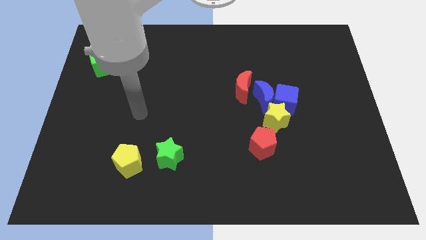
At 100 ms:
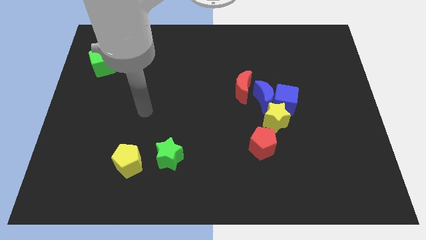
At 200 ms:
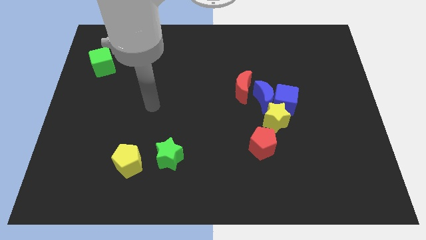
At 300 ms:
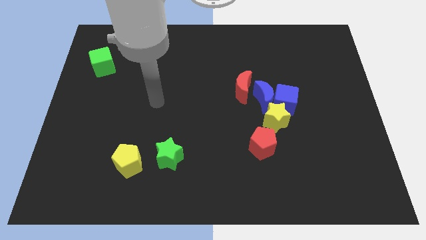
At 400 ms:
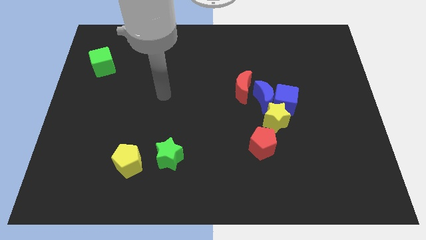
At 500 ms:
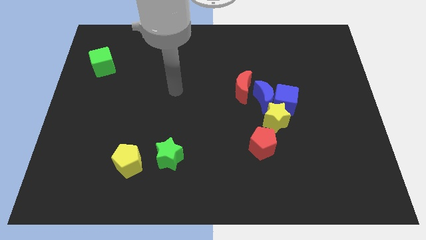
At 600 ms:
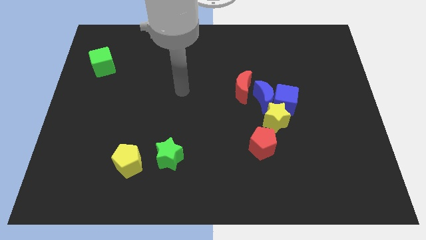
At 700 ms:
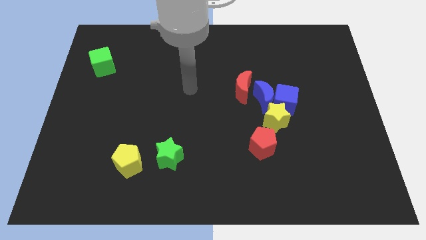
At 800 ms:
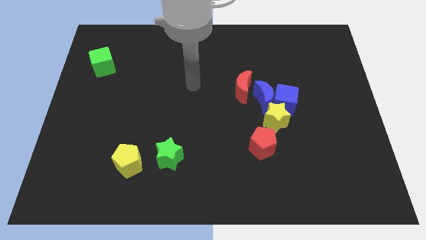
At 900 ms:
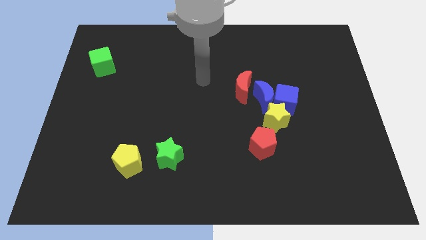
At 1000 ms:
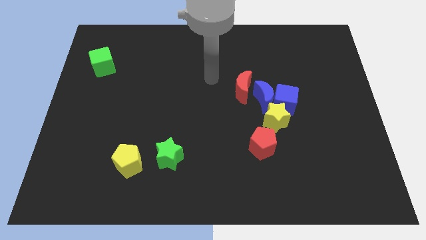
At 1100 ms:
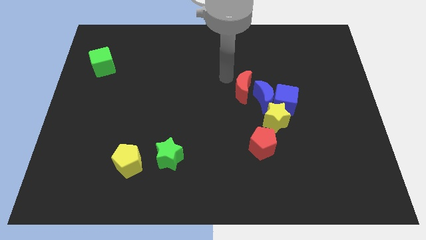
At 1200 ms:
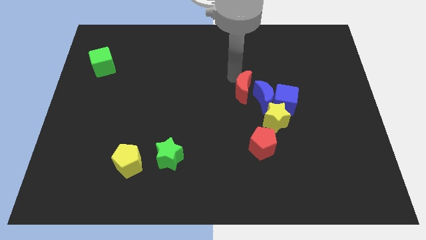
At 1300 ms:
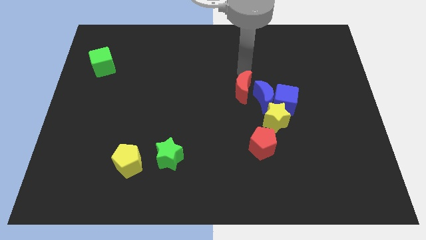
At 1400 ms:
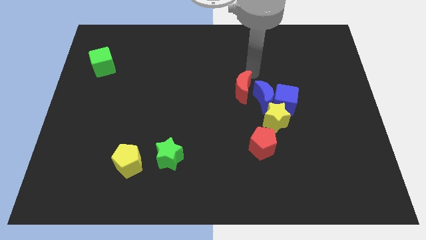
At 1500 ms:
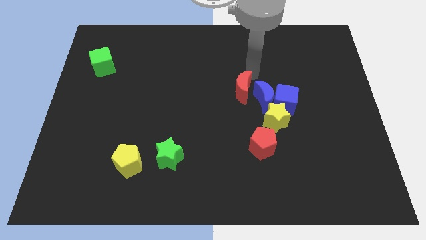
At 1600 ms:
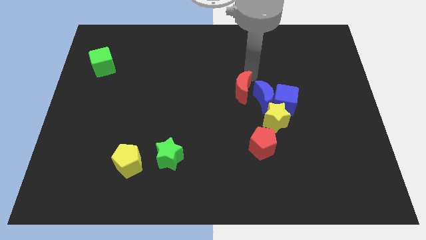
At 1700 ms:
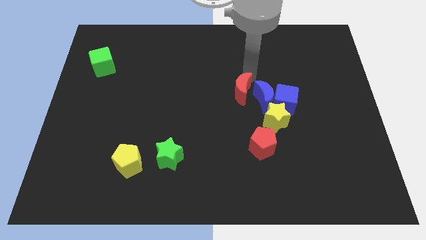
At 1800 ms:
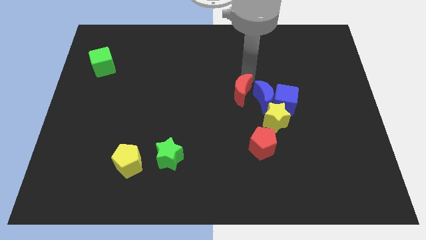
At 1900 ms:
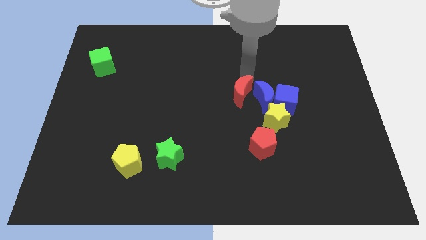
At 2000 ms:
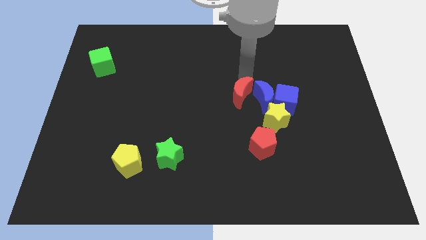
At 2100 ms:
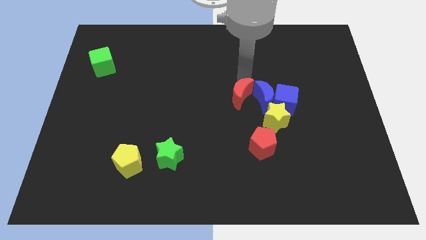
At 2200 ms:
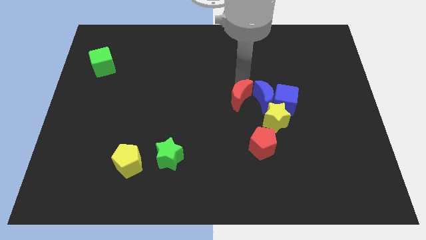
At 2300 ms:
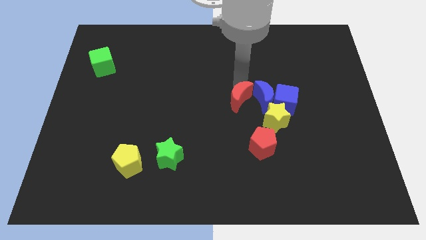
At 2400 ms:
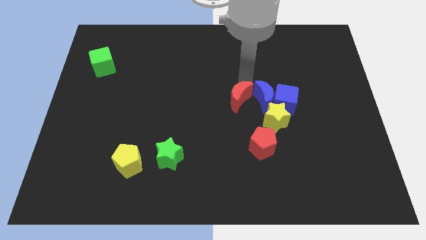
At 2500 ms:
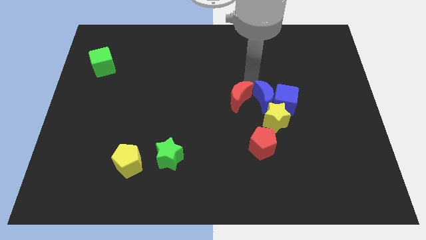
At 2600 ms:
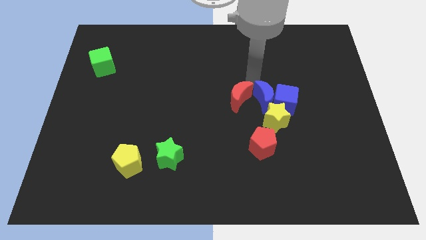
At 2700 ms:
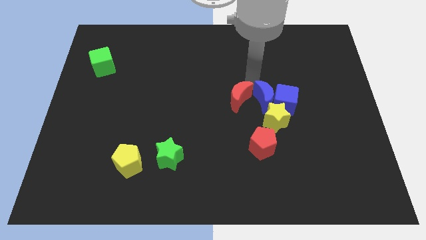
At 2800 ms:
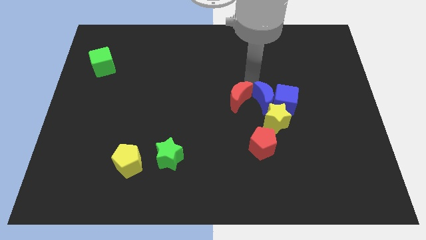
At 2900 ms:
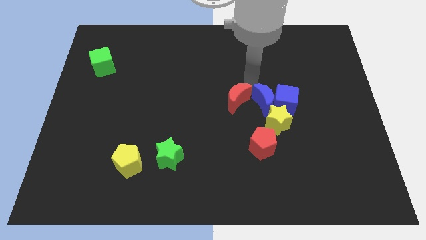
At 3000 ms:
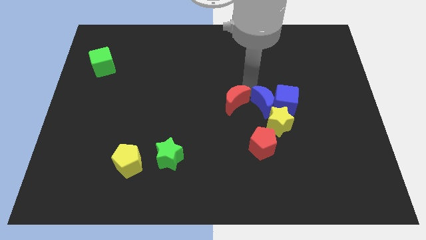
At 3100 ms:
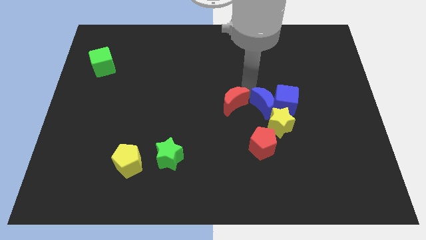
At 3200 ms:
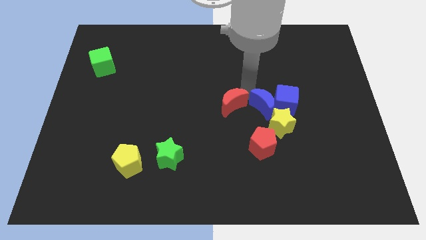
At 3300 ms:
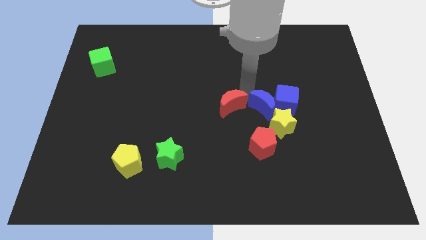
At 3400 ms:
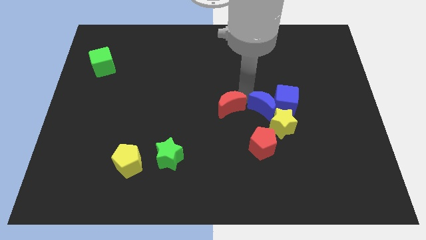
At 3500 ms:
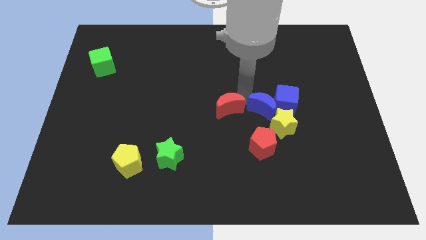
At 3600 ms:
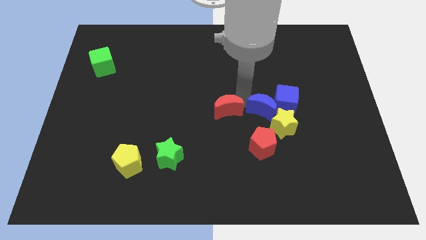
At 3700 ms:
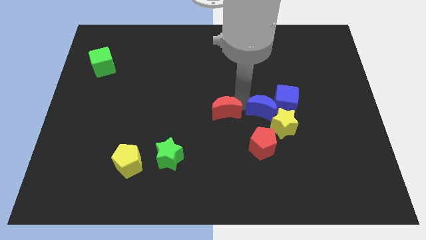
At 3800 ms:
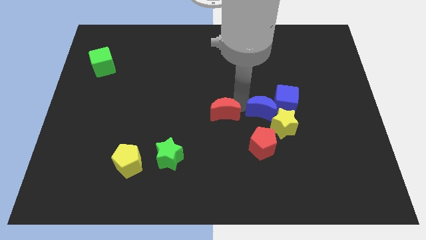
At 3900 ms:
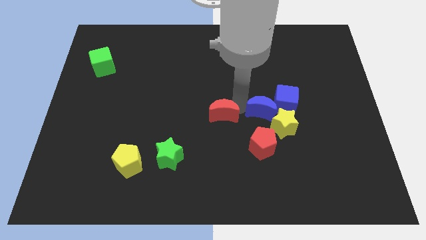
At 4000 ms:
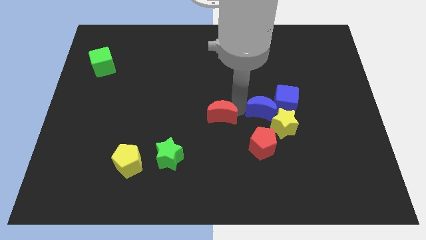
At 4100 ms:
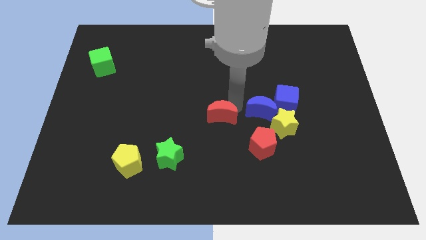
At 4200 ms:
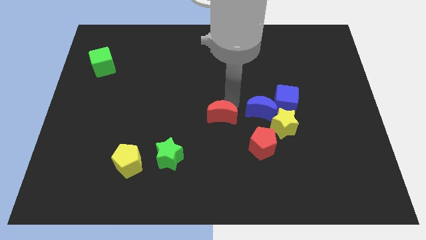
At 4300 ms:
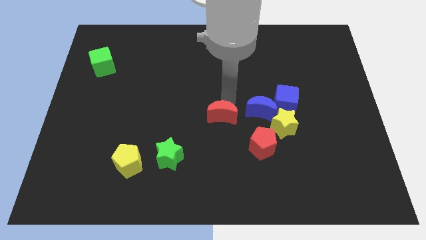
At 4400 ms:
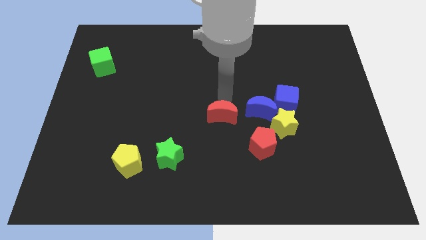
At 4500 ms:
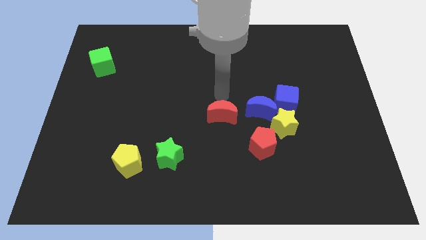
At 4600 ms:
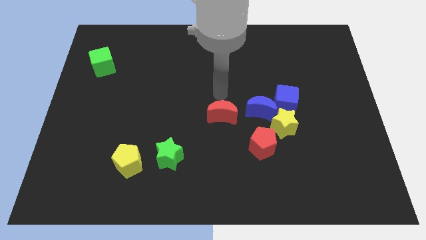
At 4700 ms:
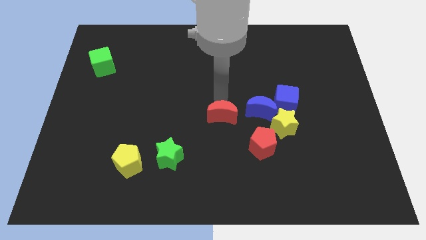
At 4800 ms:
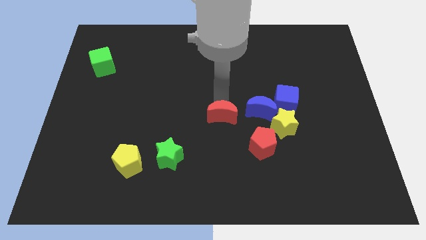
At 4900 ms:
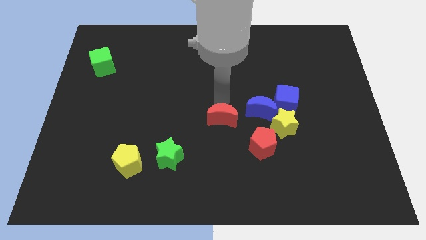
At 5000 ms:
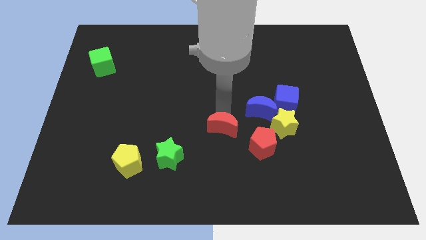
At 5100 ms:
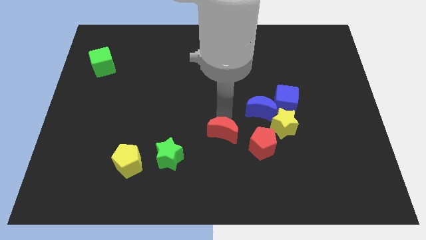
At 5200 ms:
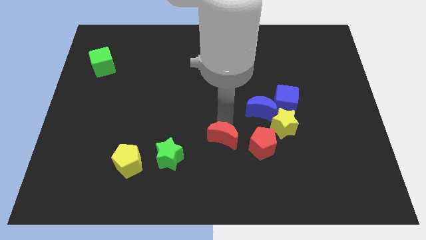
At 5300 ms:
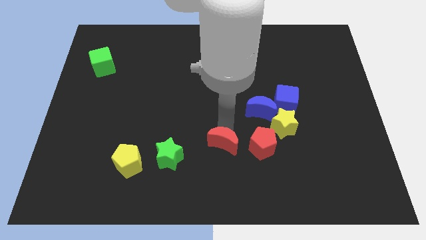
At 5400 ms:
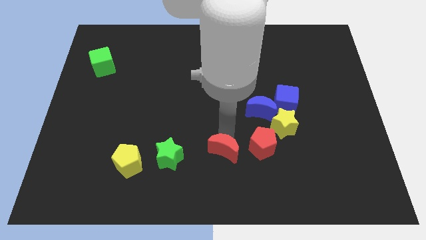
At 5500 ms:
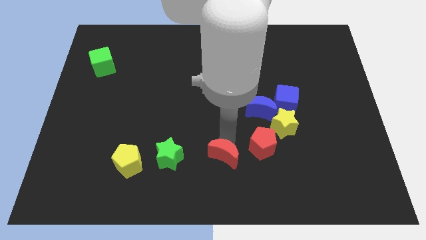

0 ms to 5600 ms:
put the red moon to the bottom

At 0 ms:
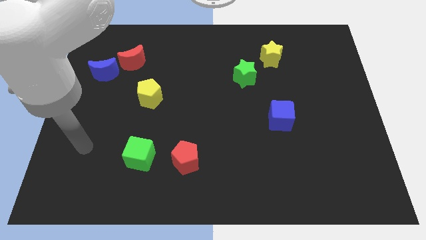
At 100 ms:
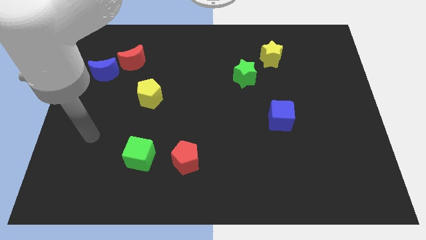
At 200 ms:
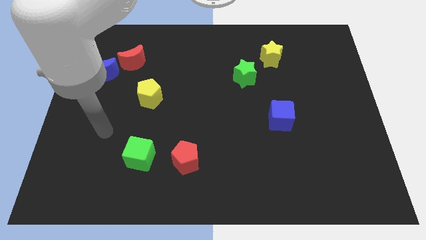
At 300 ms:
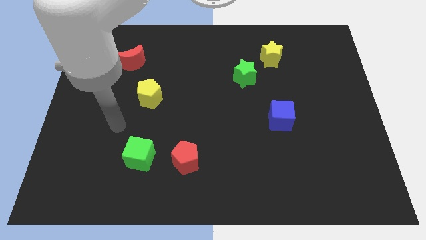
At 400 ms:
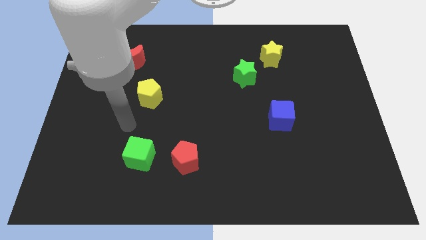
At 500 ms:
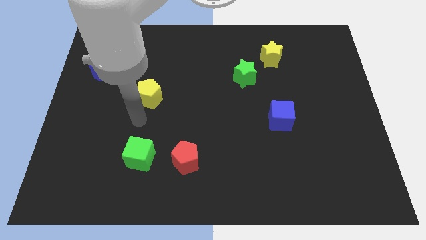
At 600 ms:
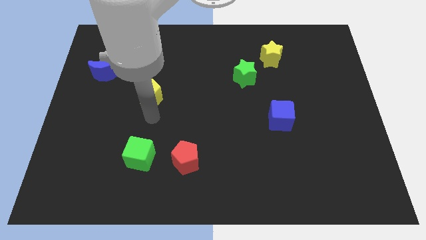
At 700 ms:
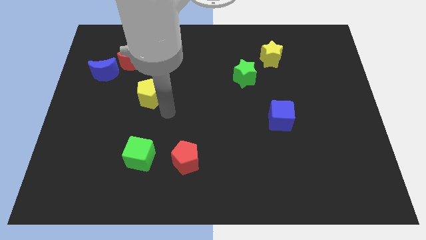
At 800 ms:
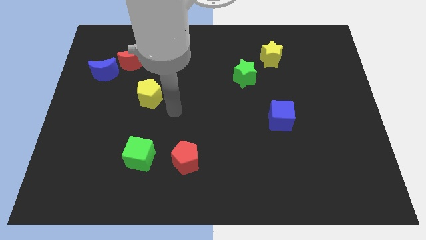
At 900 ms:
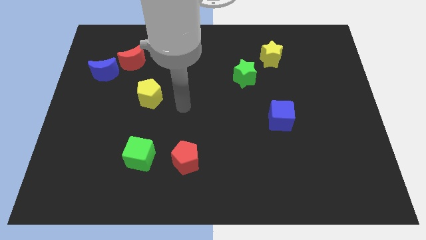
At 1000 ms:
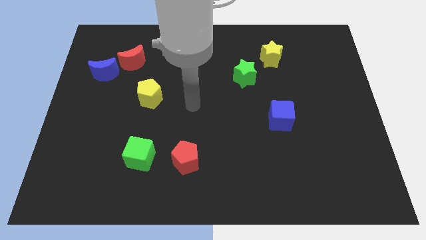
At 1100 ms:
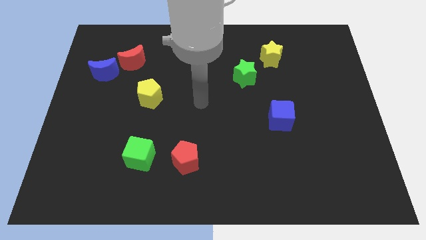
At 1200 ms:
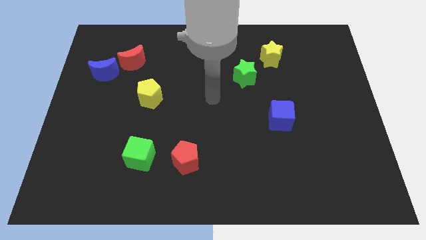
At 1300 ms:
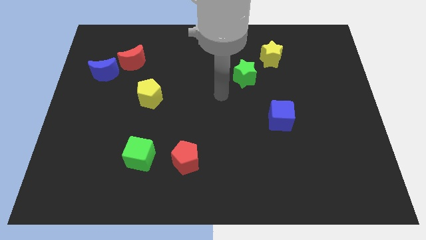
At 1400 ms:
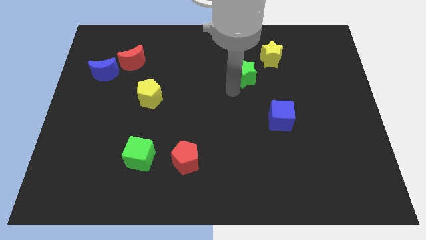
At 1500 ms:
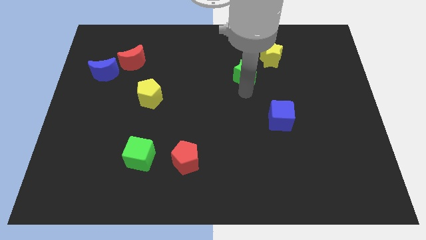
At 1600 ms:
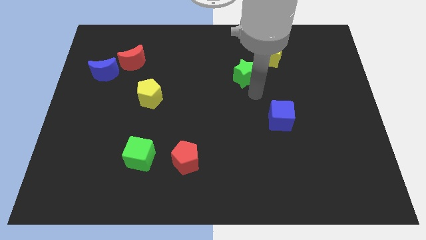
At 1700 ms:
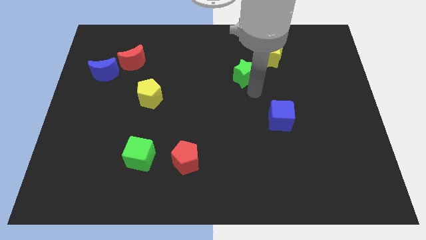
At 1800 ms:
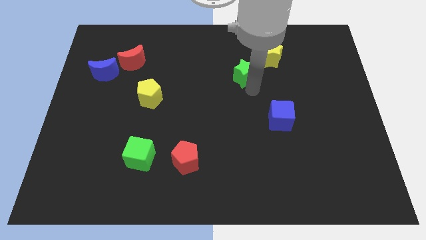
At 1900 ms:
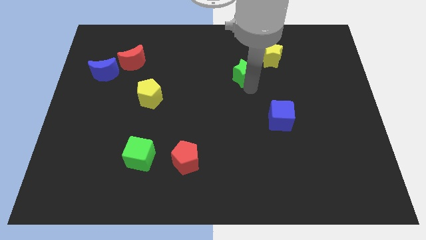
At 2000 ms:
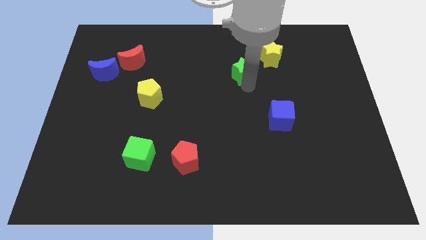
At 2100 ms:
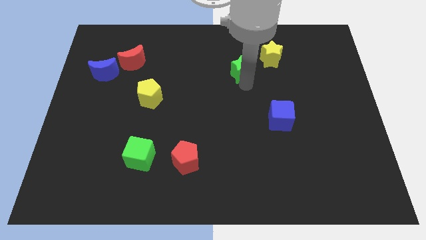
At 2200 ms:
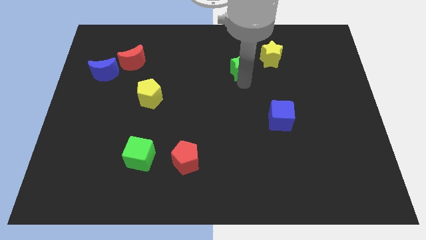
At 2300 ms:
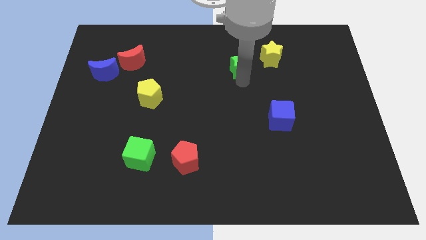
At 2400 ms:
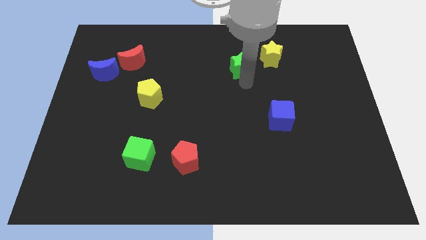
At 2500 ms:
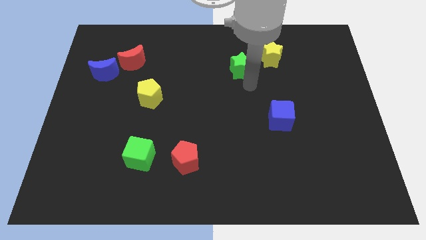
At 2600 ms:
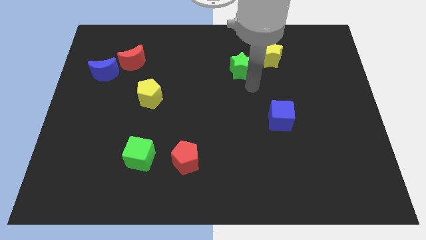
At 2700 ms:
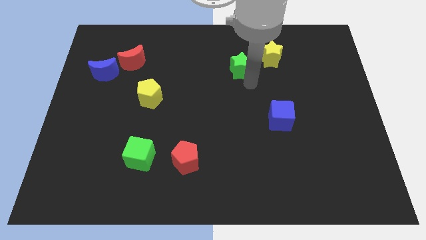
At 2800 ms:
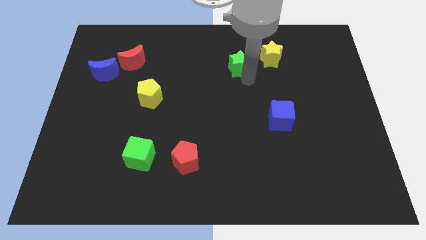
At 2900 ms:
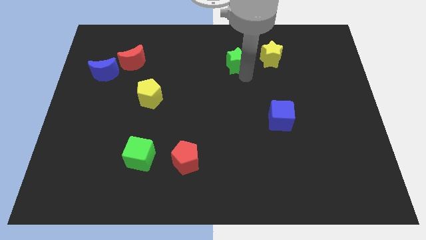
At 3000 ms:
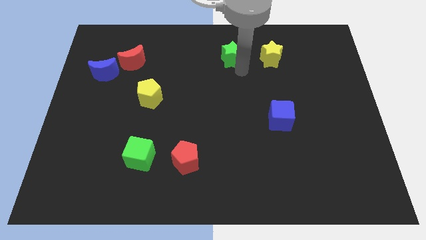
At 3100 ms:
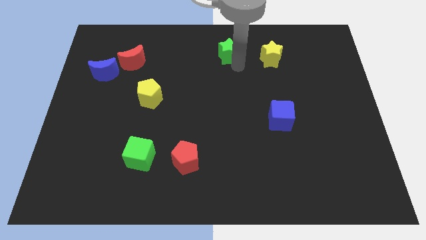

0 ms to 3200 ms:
move the green star to the top side
